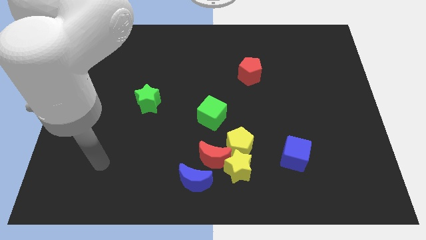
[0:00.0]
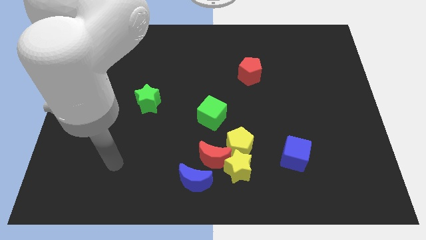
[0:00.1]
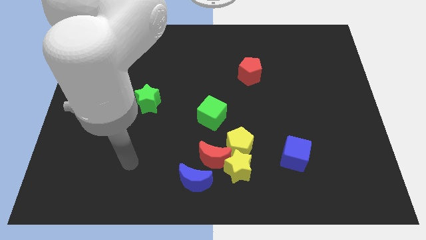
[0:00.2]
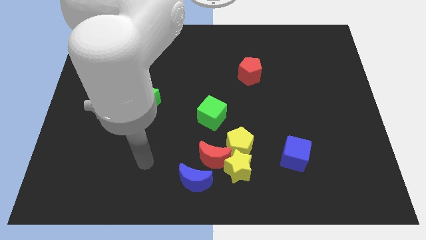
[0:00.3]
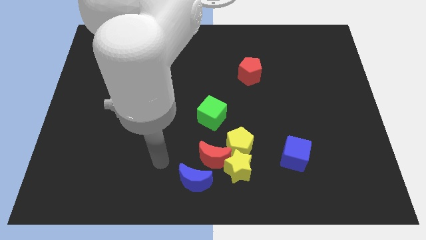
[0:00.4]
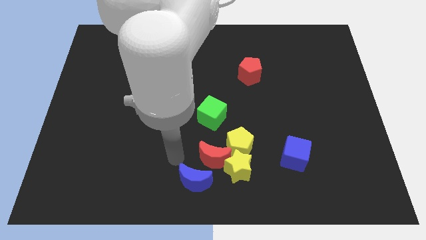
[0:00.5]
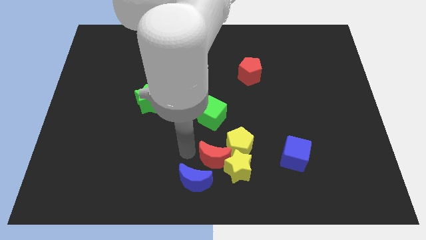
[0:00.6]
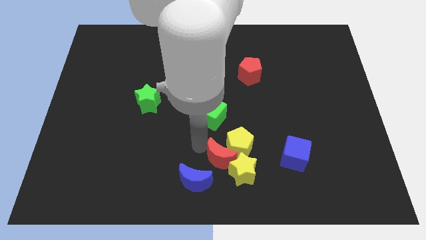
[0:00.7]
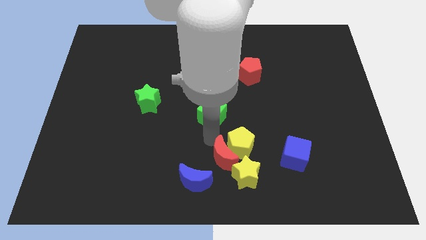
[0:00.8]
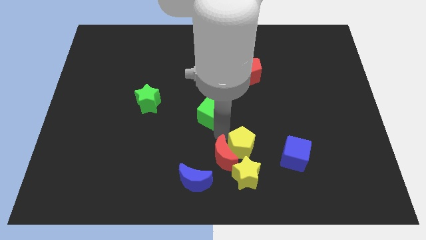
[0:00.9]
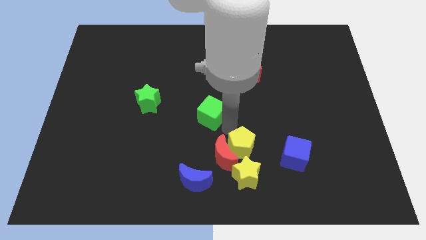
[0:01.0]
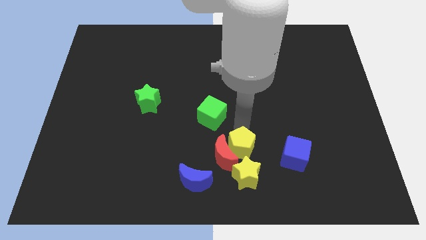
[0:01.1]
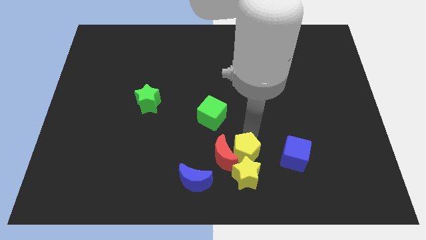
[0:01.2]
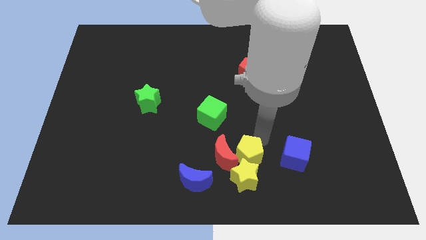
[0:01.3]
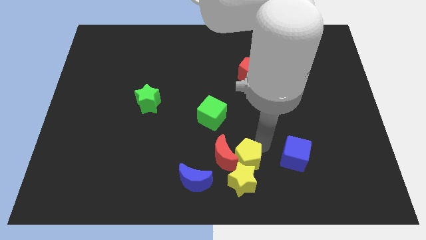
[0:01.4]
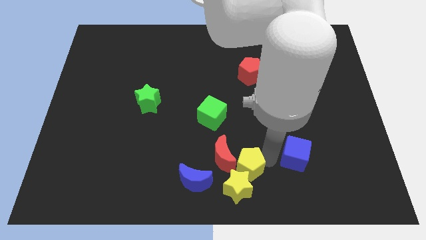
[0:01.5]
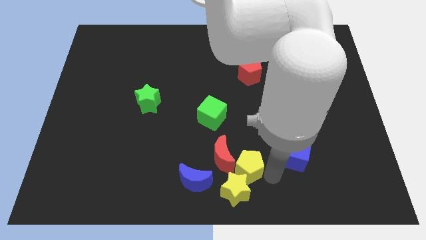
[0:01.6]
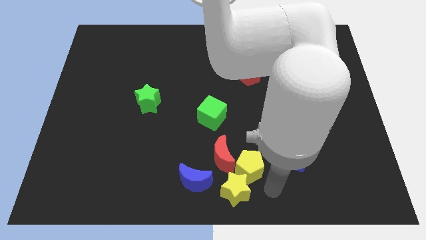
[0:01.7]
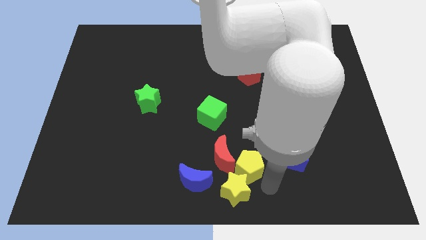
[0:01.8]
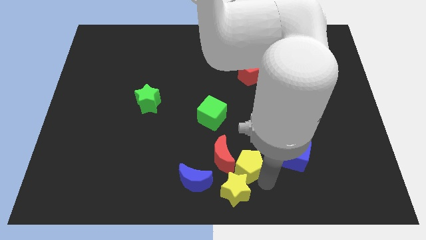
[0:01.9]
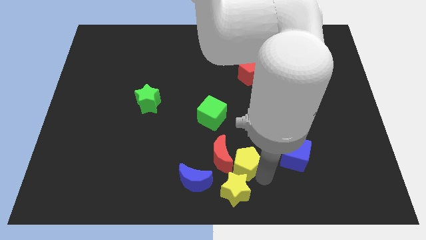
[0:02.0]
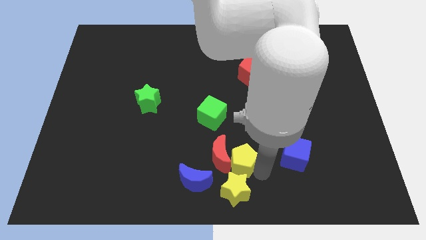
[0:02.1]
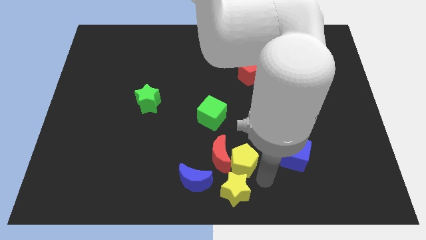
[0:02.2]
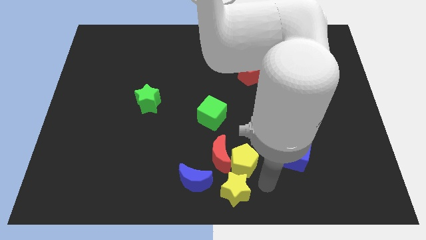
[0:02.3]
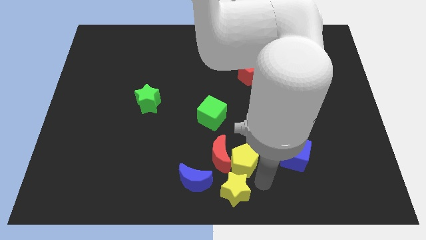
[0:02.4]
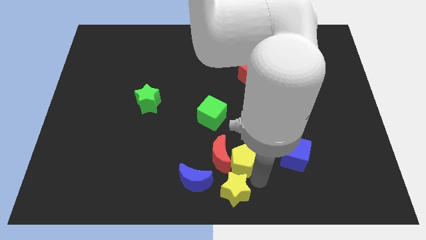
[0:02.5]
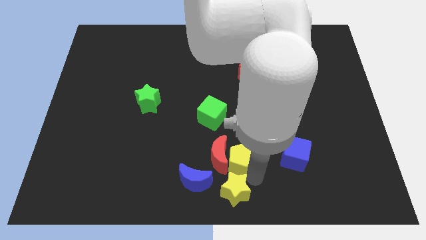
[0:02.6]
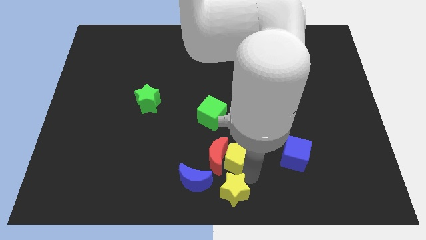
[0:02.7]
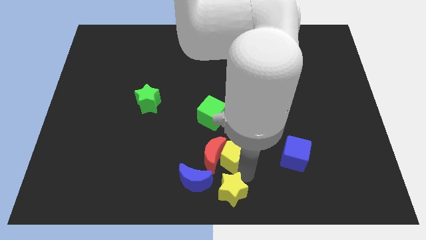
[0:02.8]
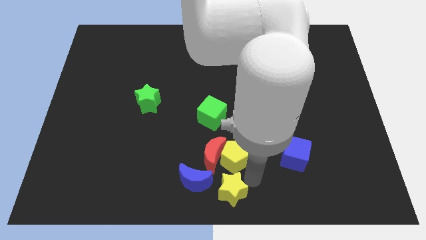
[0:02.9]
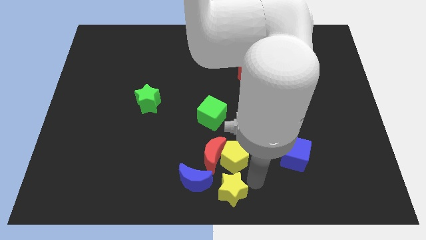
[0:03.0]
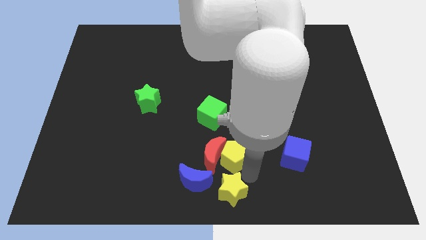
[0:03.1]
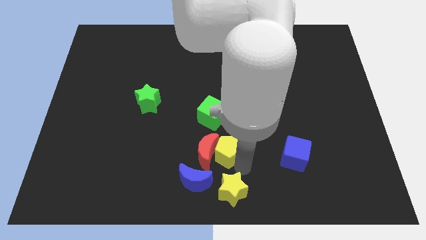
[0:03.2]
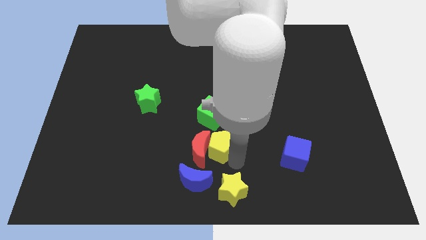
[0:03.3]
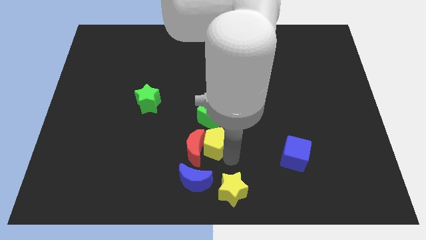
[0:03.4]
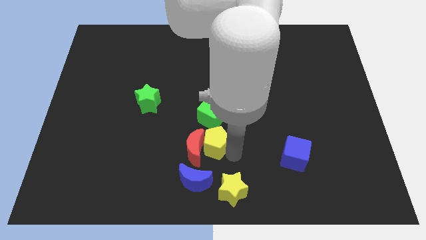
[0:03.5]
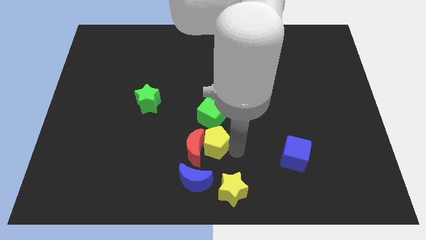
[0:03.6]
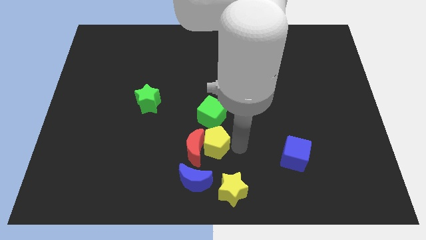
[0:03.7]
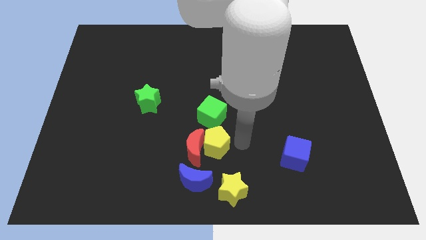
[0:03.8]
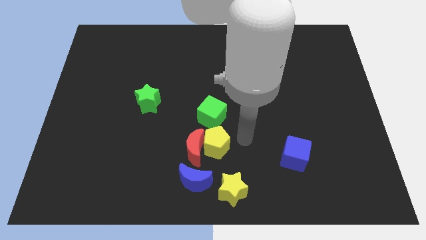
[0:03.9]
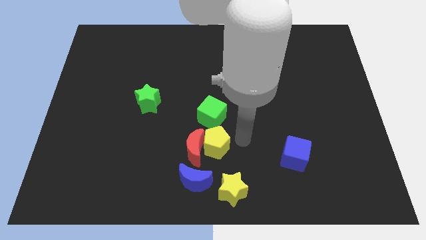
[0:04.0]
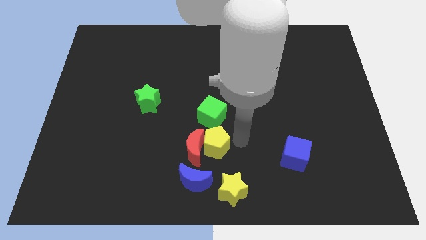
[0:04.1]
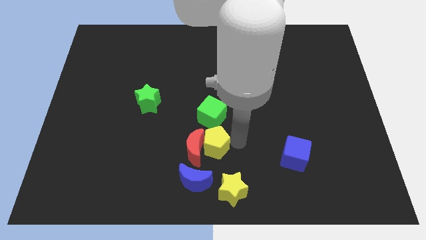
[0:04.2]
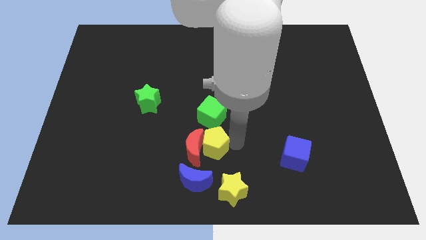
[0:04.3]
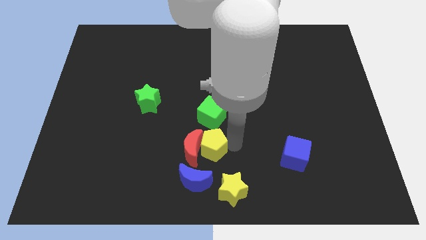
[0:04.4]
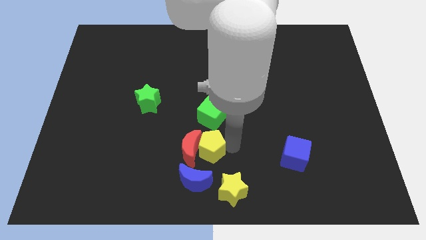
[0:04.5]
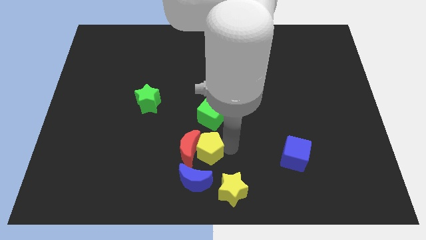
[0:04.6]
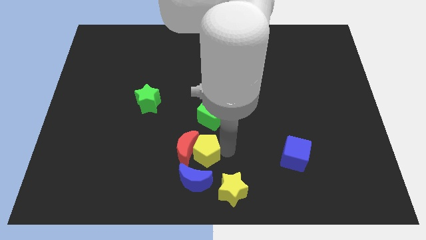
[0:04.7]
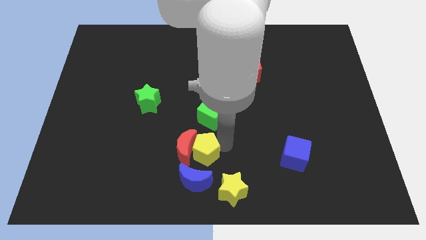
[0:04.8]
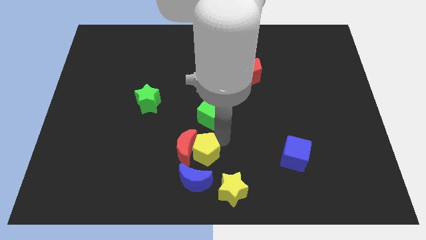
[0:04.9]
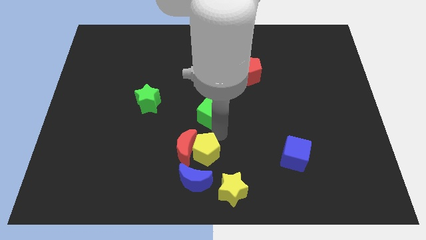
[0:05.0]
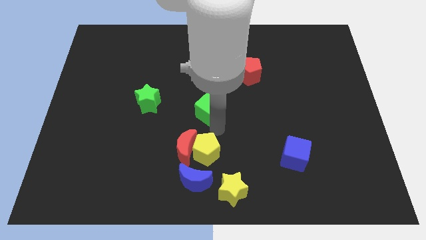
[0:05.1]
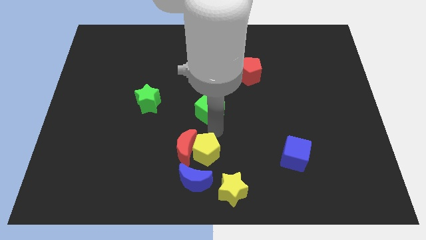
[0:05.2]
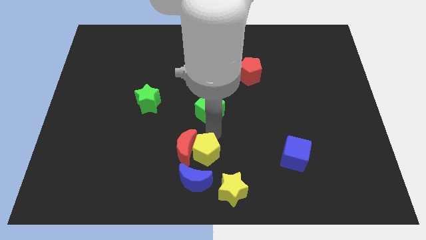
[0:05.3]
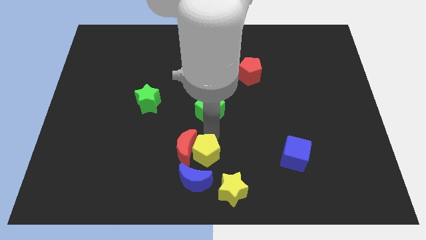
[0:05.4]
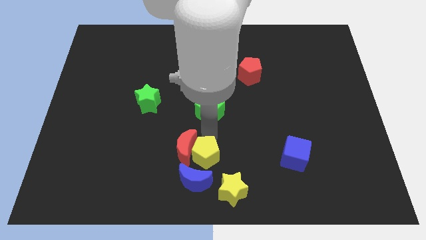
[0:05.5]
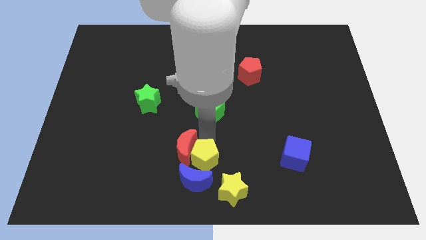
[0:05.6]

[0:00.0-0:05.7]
put the yellow pentagon to the blue moon

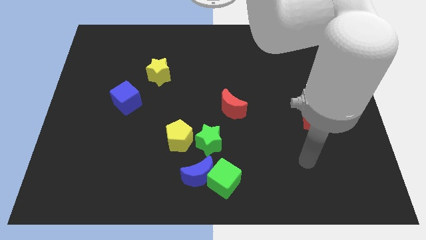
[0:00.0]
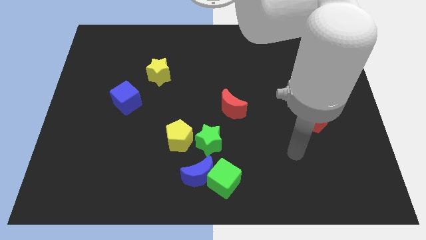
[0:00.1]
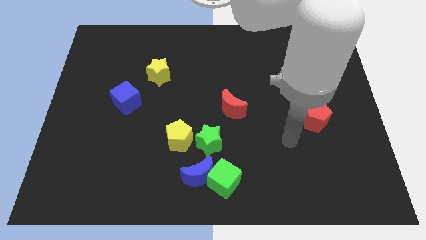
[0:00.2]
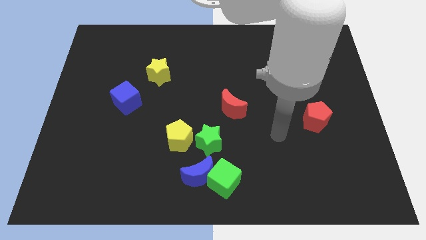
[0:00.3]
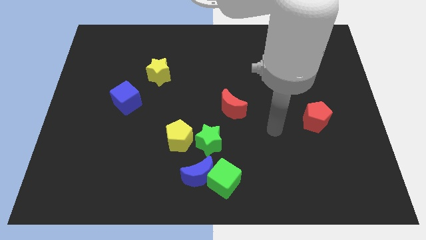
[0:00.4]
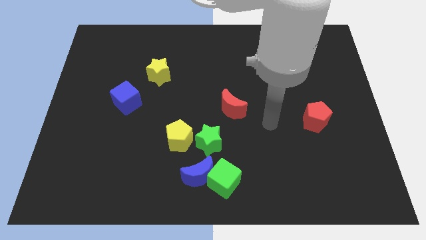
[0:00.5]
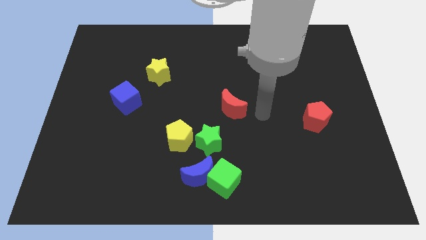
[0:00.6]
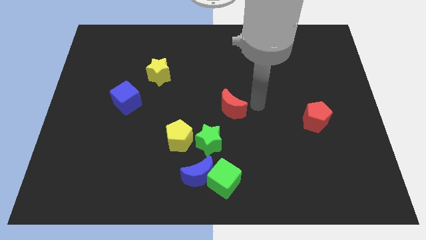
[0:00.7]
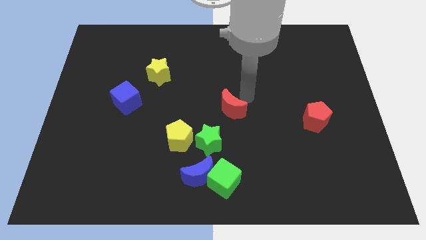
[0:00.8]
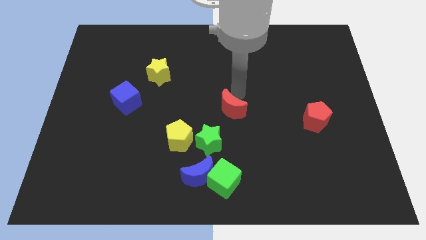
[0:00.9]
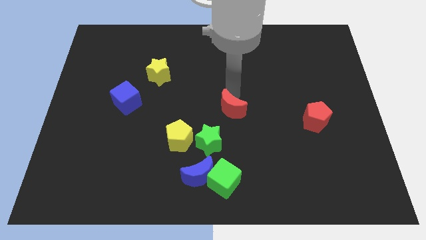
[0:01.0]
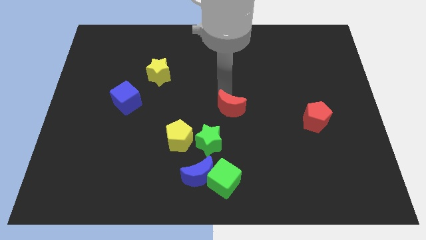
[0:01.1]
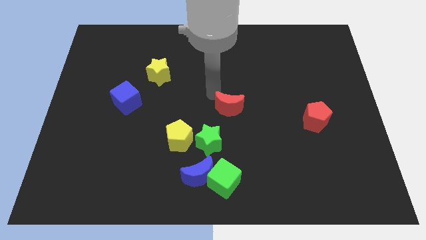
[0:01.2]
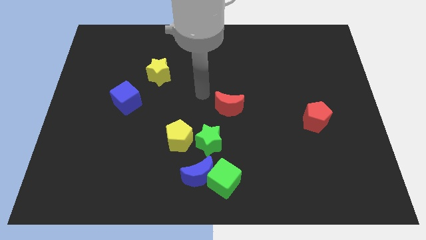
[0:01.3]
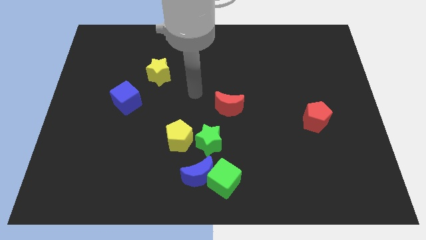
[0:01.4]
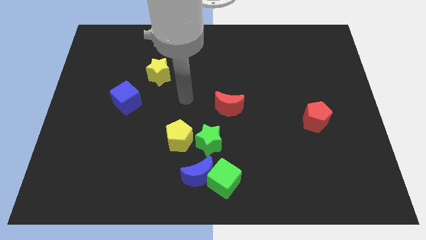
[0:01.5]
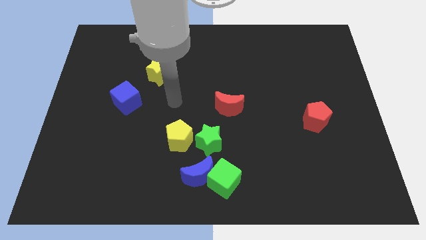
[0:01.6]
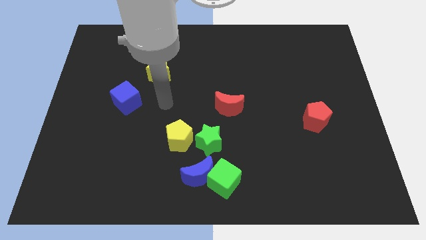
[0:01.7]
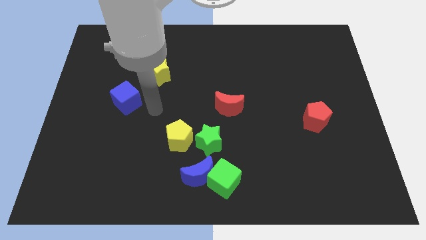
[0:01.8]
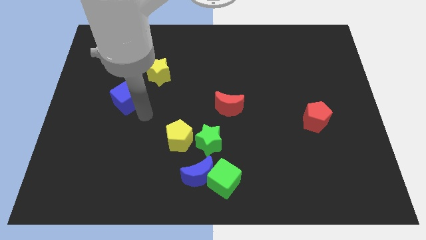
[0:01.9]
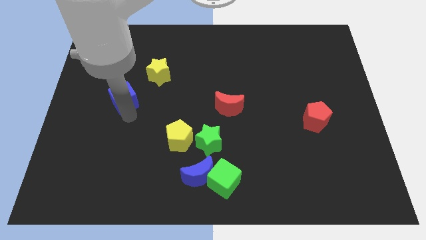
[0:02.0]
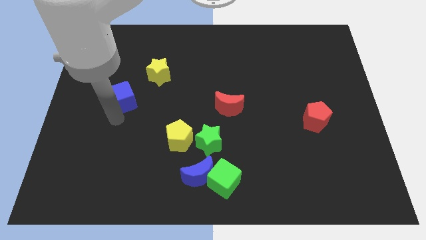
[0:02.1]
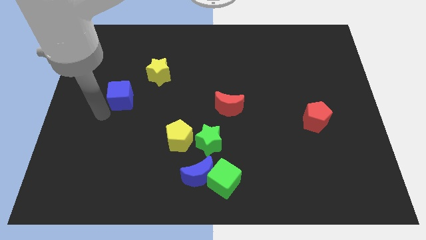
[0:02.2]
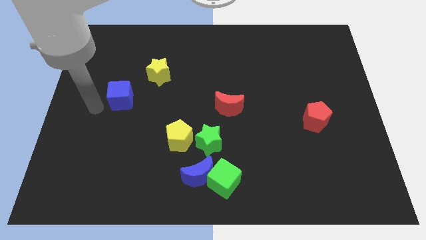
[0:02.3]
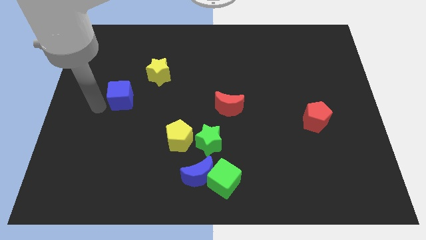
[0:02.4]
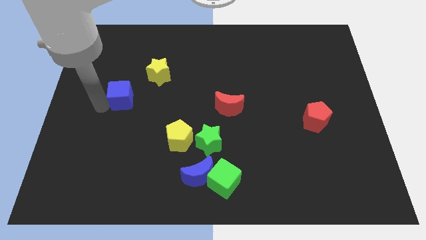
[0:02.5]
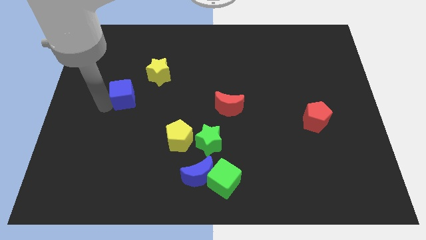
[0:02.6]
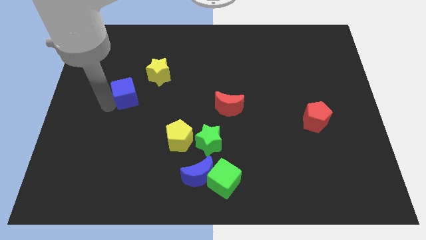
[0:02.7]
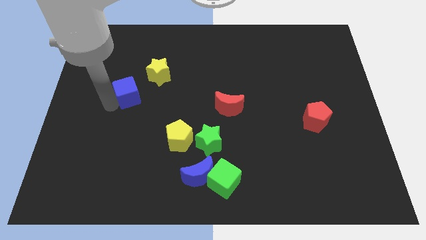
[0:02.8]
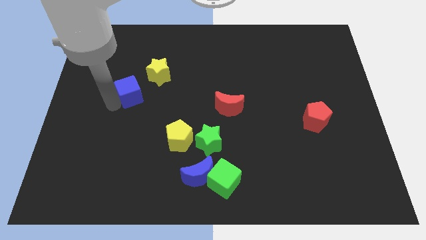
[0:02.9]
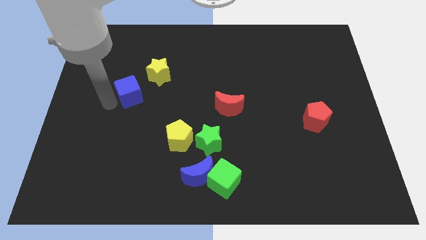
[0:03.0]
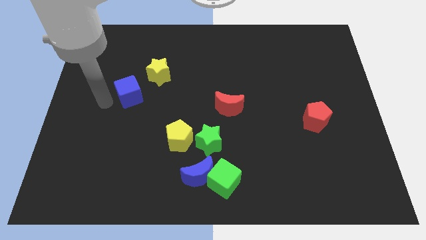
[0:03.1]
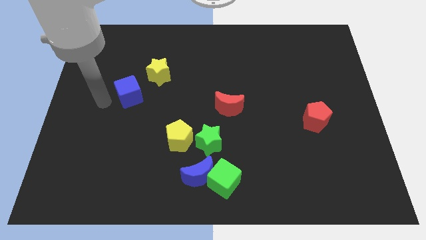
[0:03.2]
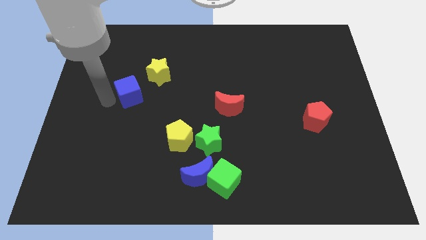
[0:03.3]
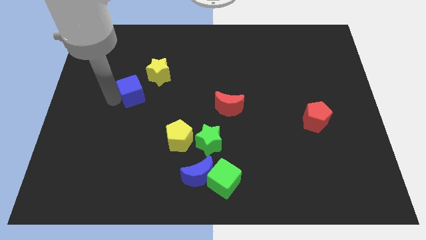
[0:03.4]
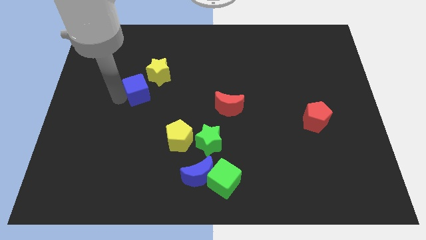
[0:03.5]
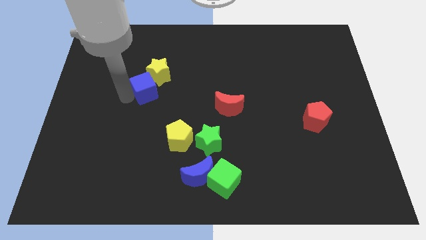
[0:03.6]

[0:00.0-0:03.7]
push the blue cube towards the yellow star
